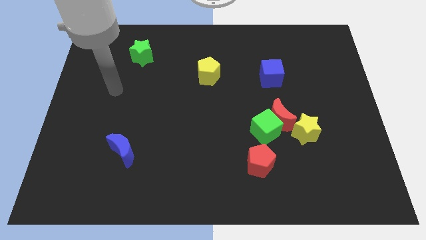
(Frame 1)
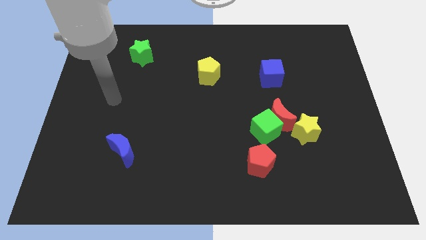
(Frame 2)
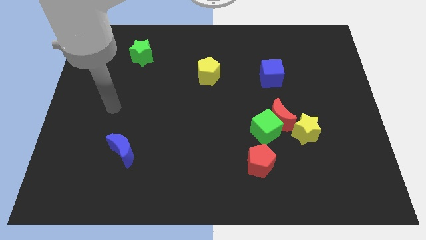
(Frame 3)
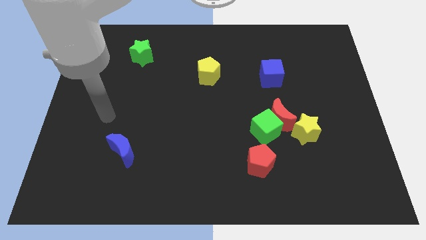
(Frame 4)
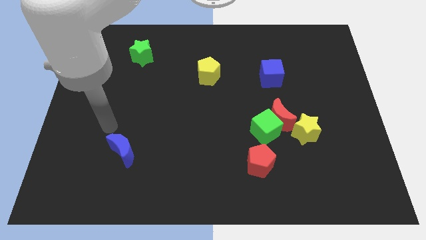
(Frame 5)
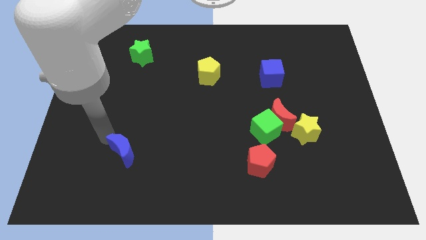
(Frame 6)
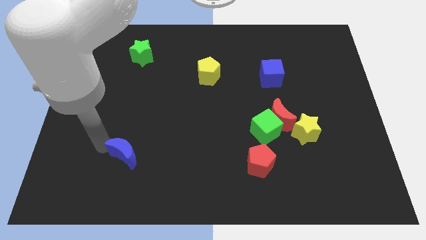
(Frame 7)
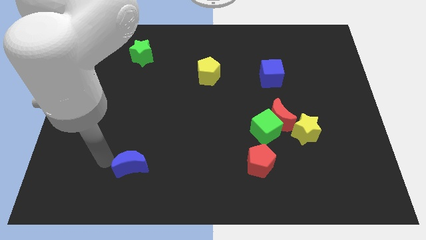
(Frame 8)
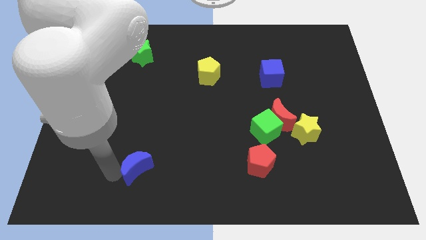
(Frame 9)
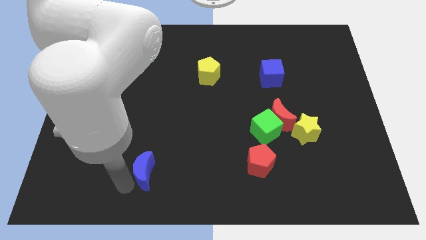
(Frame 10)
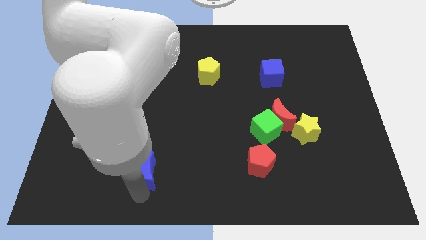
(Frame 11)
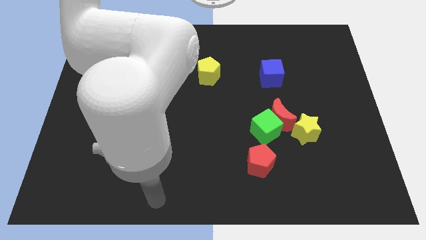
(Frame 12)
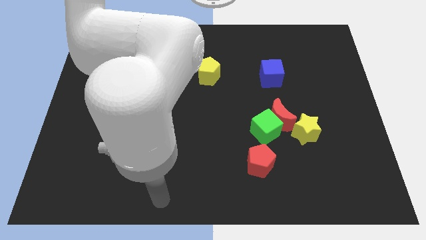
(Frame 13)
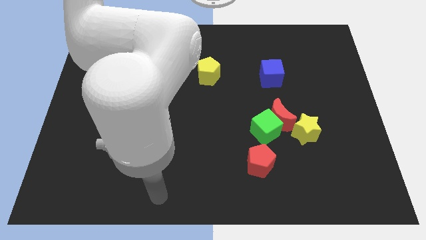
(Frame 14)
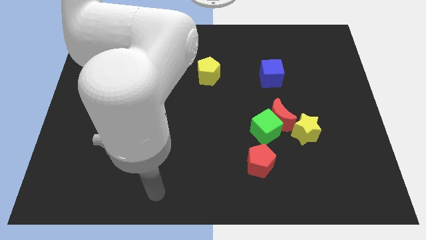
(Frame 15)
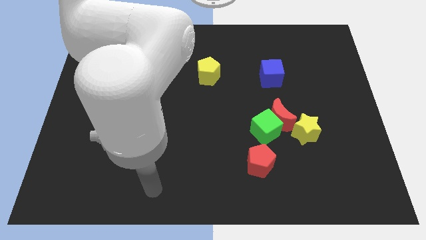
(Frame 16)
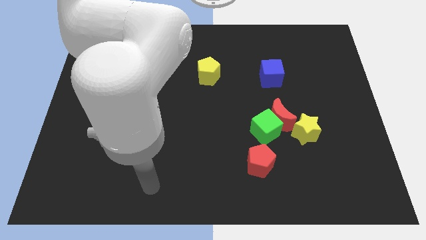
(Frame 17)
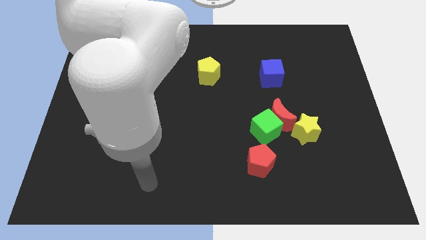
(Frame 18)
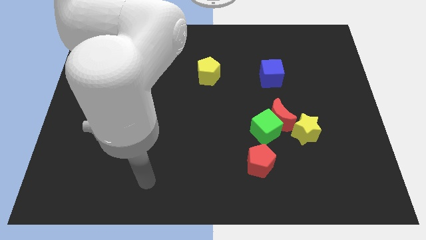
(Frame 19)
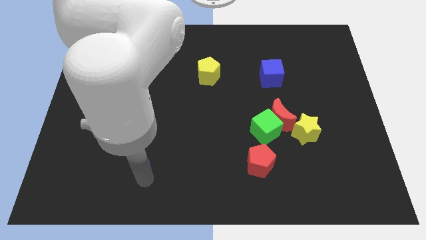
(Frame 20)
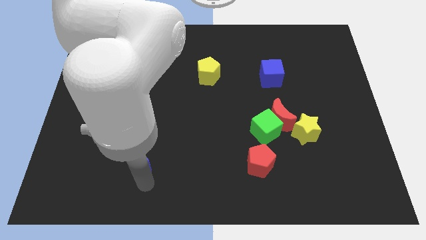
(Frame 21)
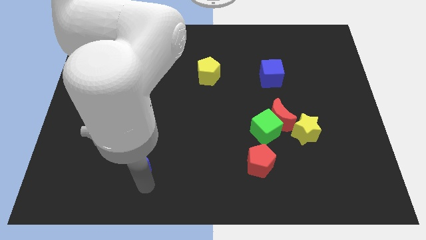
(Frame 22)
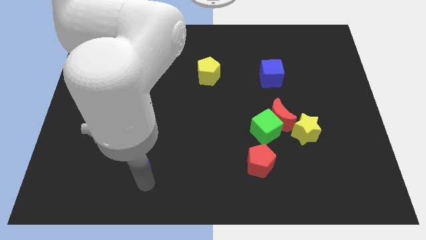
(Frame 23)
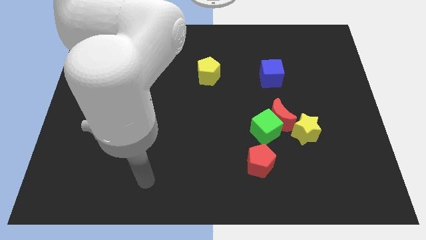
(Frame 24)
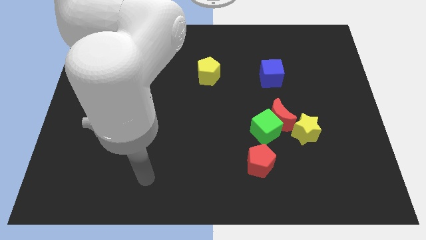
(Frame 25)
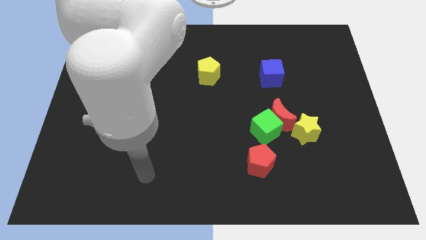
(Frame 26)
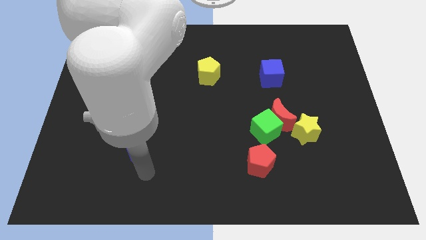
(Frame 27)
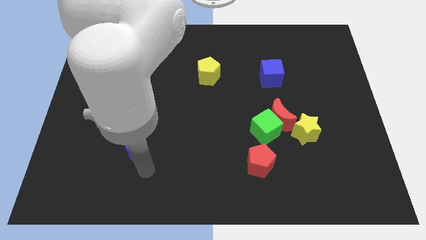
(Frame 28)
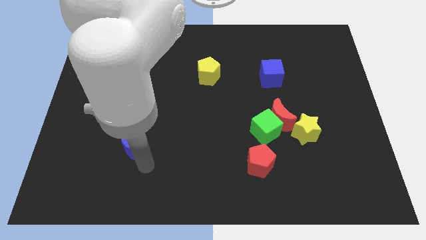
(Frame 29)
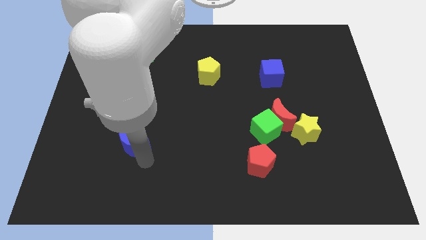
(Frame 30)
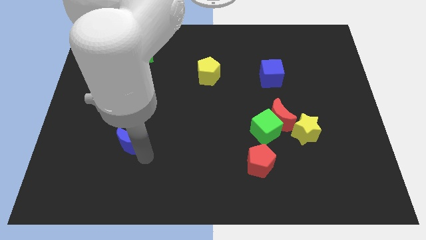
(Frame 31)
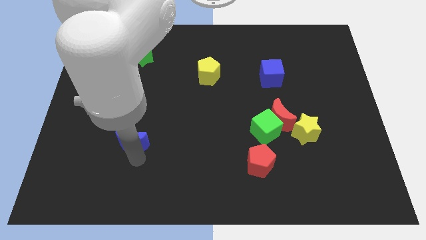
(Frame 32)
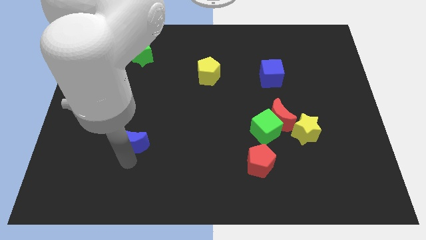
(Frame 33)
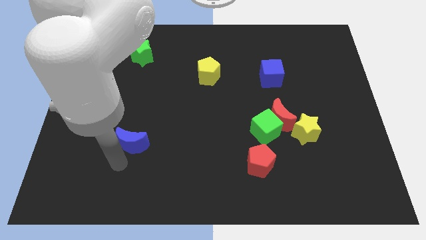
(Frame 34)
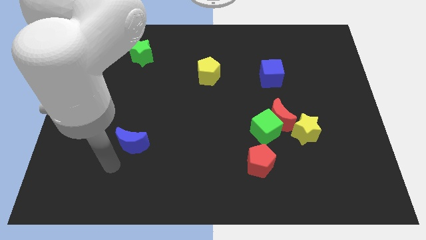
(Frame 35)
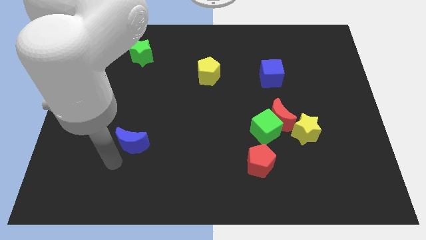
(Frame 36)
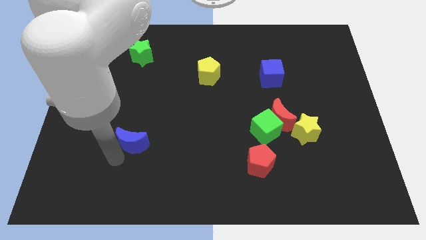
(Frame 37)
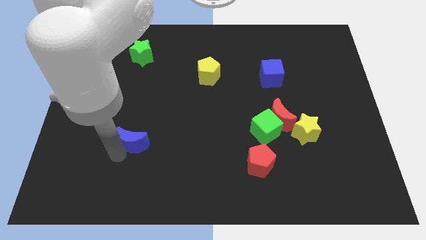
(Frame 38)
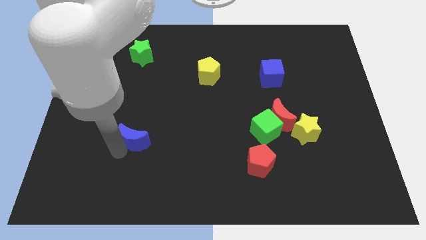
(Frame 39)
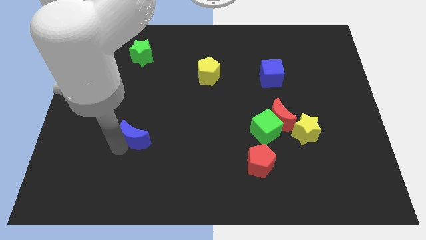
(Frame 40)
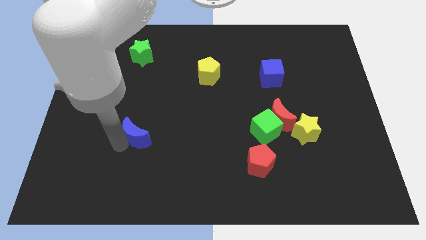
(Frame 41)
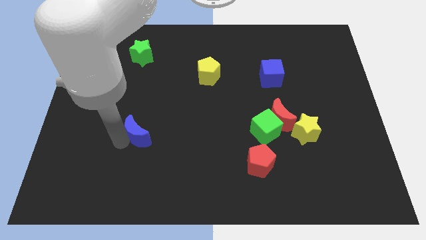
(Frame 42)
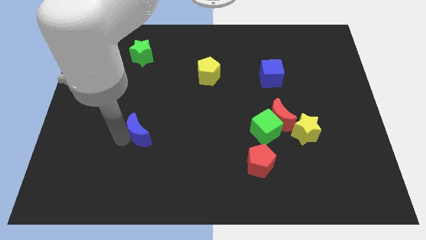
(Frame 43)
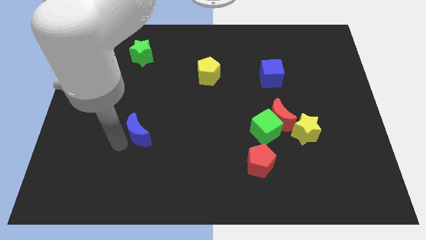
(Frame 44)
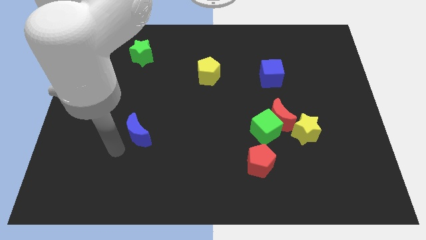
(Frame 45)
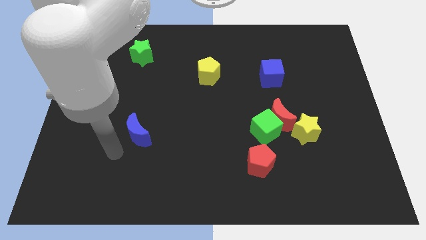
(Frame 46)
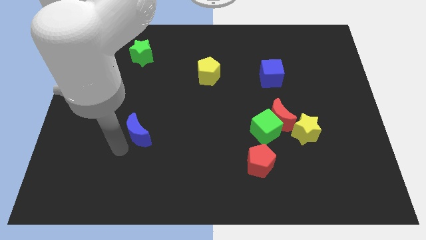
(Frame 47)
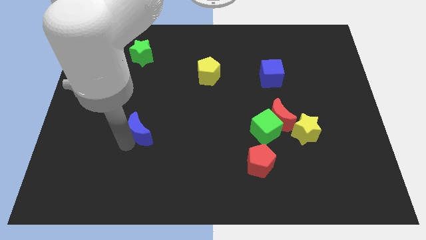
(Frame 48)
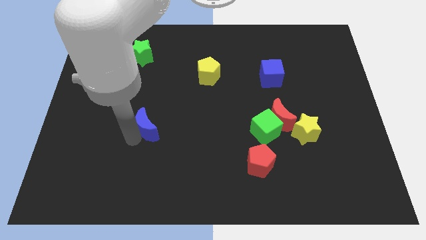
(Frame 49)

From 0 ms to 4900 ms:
slightly move the blue moon up and to the right

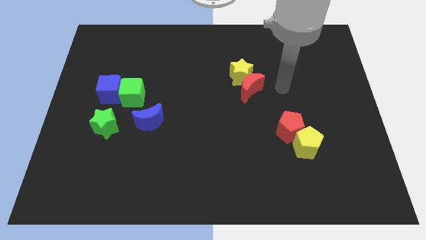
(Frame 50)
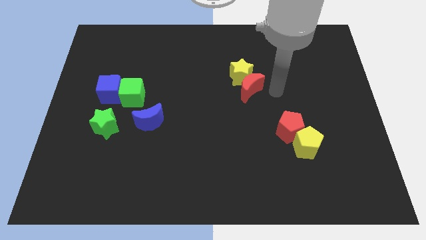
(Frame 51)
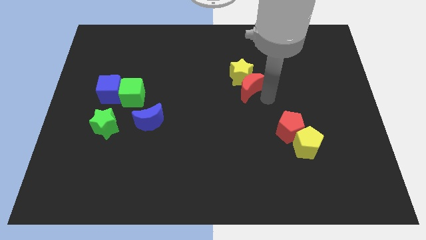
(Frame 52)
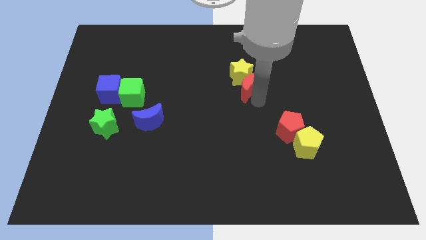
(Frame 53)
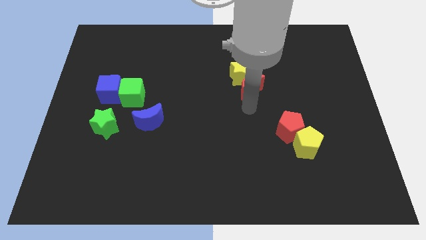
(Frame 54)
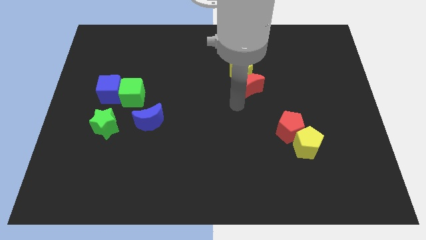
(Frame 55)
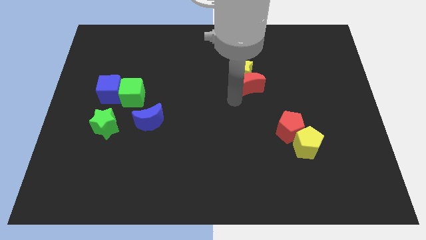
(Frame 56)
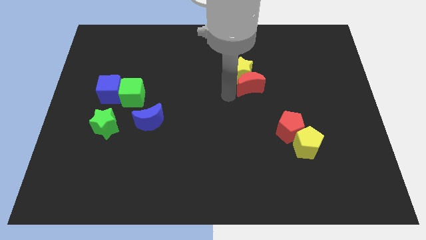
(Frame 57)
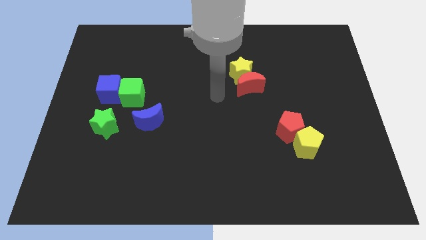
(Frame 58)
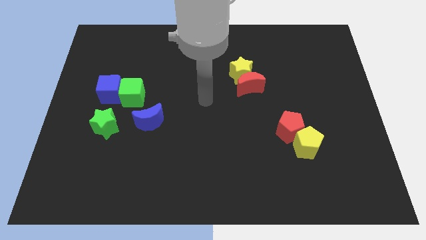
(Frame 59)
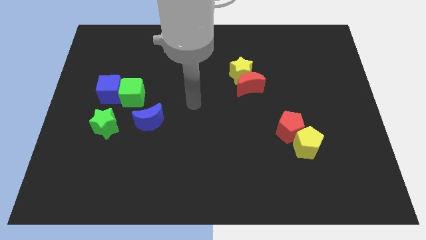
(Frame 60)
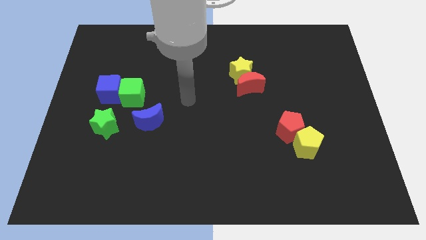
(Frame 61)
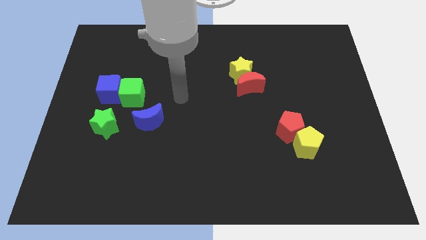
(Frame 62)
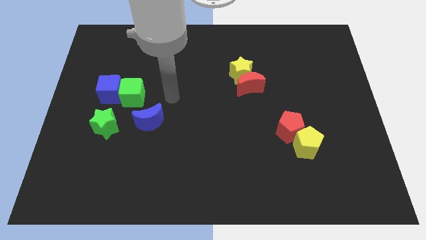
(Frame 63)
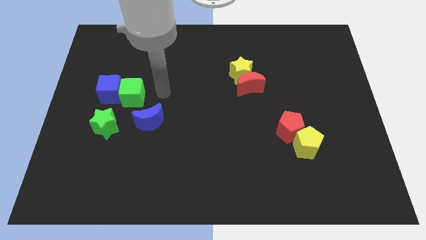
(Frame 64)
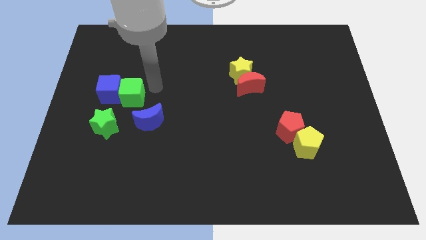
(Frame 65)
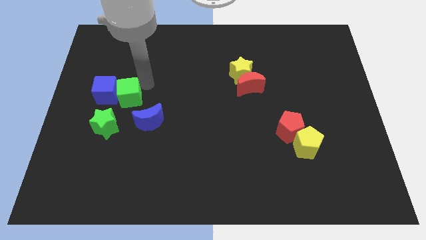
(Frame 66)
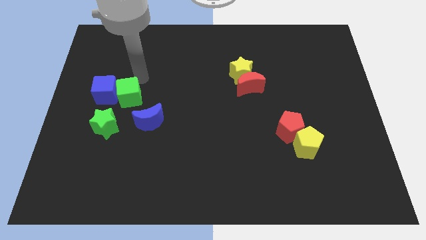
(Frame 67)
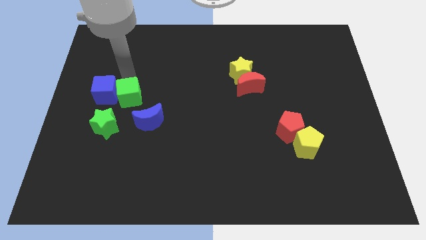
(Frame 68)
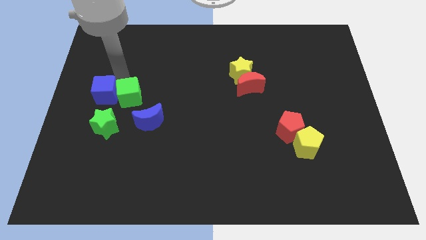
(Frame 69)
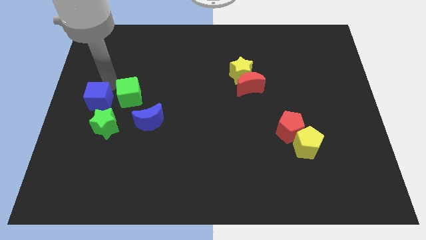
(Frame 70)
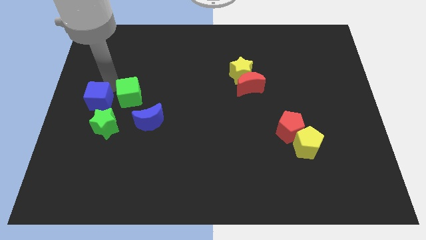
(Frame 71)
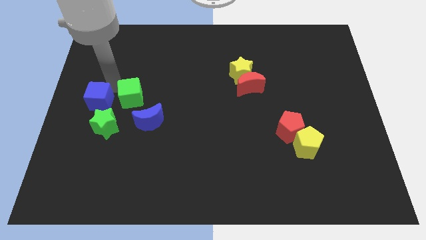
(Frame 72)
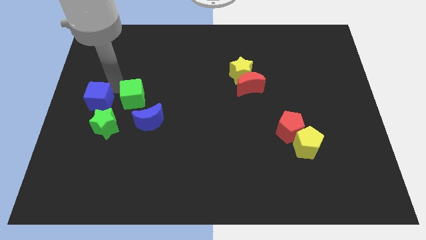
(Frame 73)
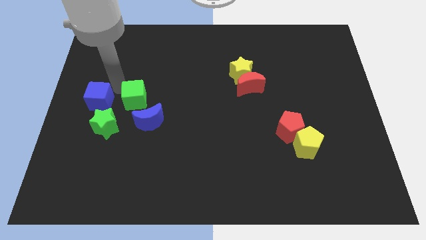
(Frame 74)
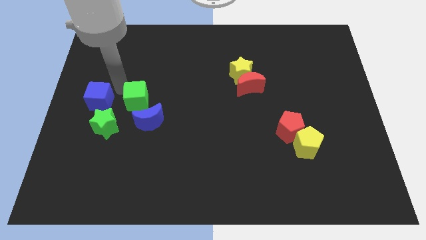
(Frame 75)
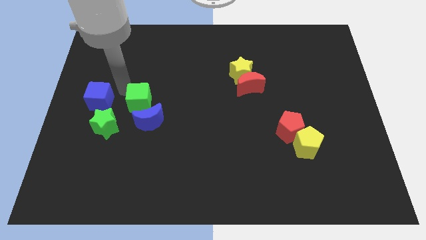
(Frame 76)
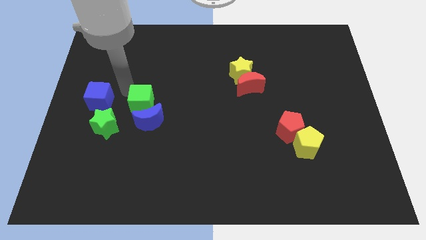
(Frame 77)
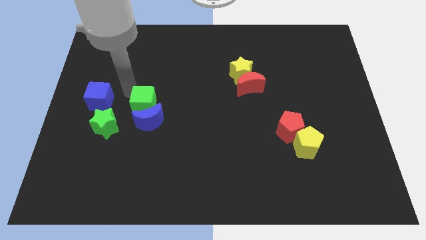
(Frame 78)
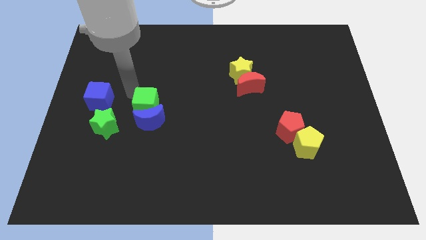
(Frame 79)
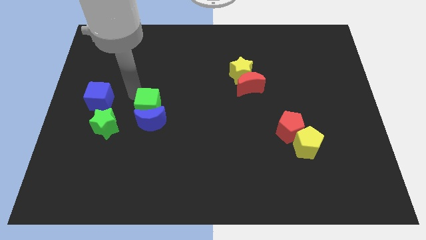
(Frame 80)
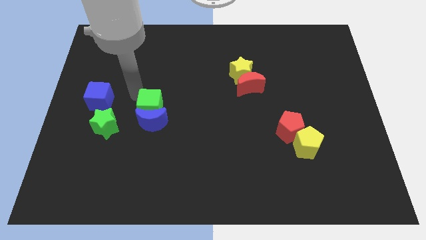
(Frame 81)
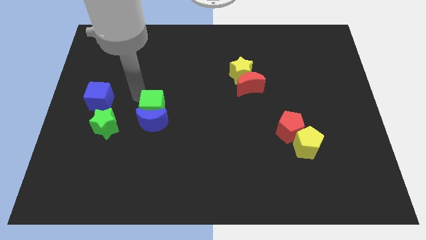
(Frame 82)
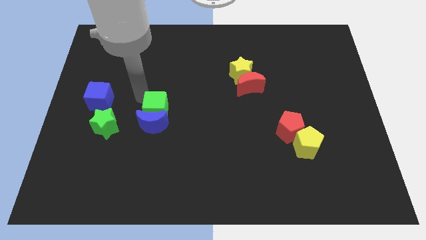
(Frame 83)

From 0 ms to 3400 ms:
move the green cube somewhat diagonally down and to the right

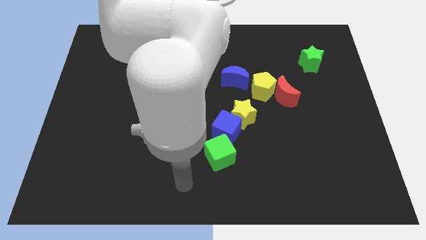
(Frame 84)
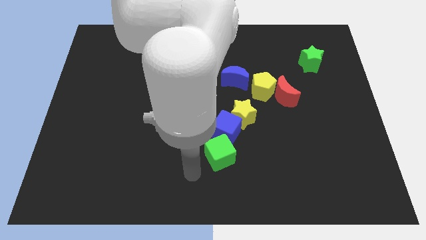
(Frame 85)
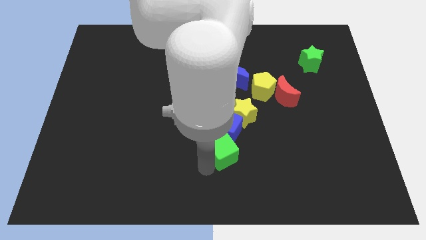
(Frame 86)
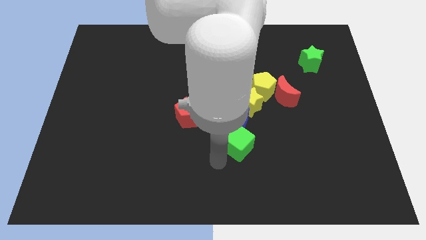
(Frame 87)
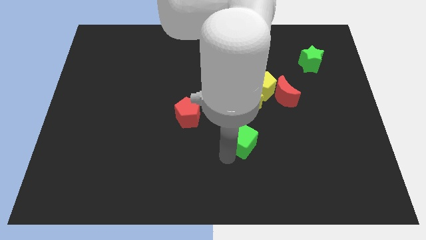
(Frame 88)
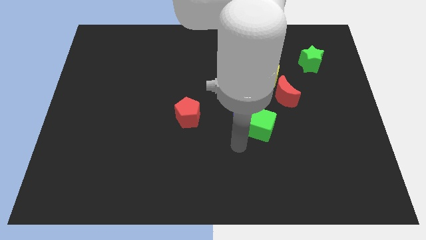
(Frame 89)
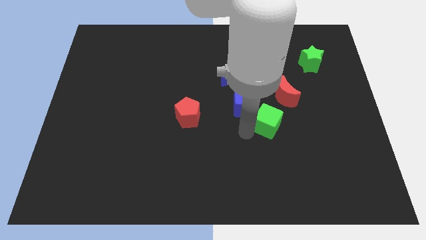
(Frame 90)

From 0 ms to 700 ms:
push the blue cube a little bit up
